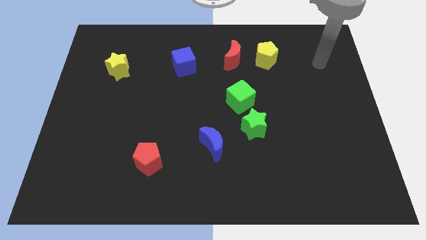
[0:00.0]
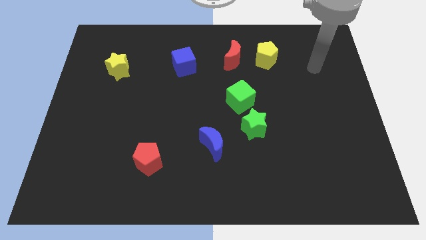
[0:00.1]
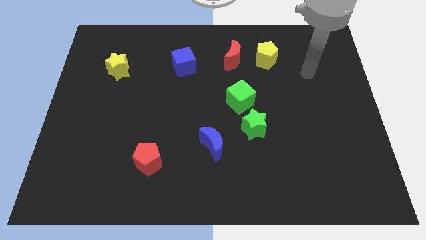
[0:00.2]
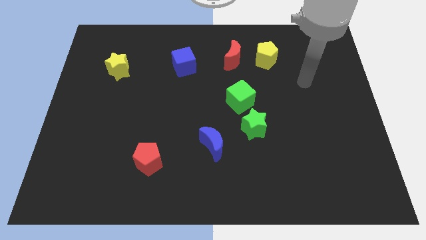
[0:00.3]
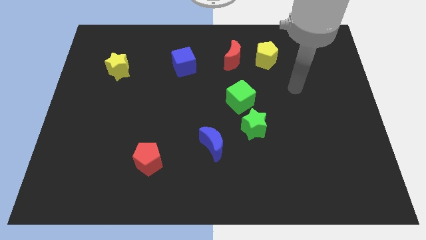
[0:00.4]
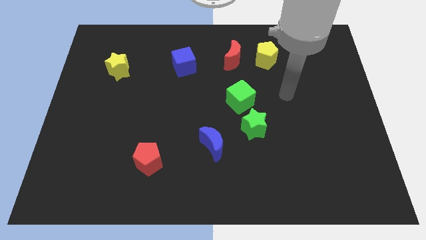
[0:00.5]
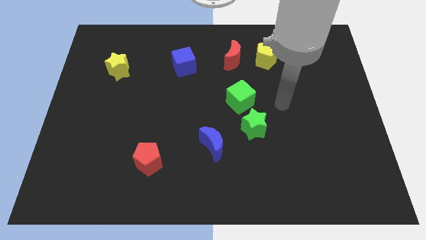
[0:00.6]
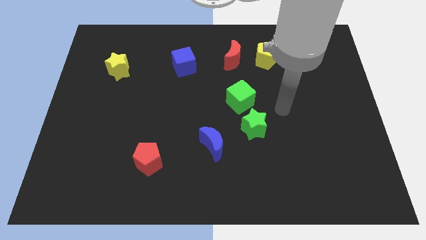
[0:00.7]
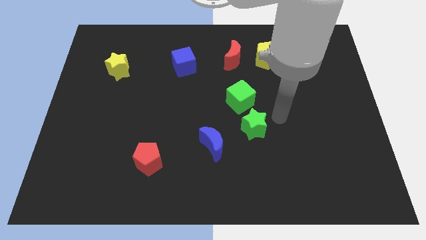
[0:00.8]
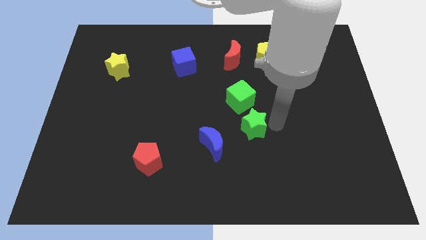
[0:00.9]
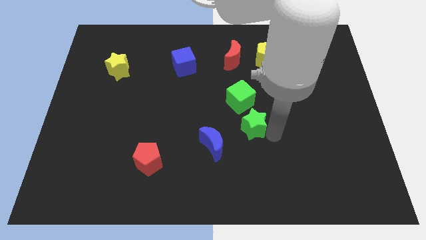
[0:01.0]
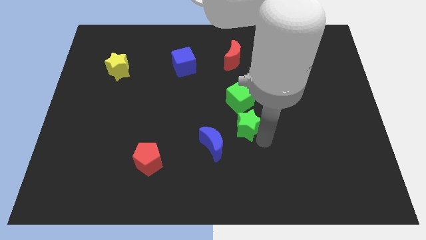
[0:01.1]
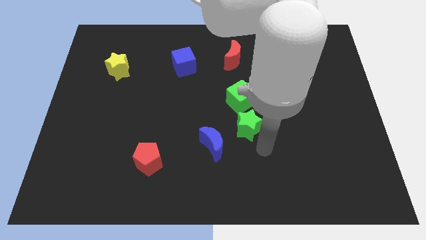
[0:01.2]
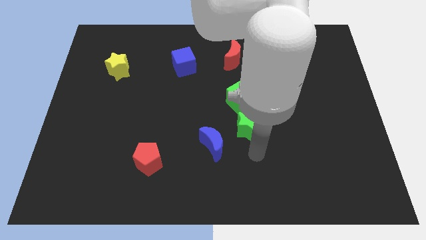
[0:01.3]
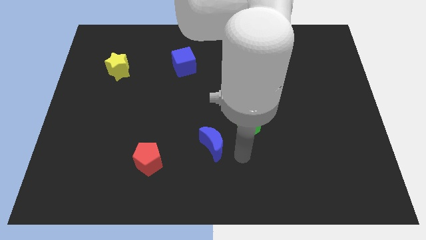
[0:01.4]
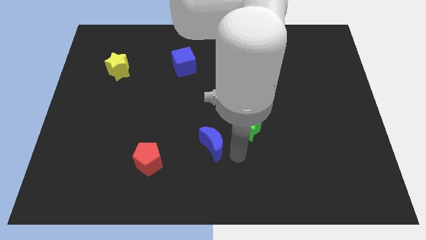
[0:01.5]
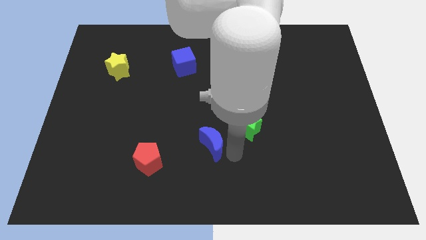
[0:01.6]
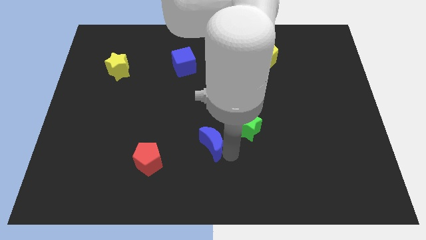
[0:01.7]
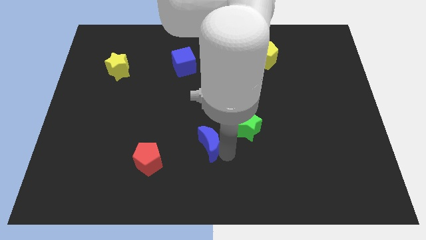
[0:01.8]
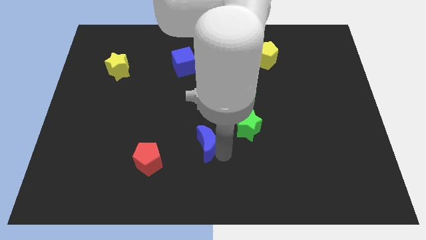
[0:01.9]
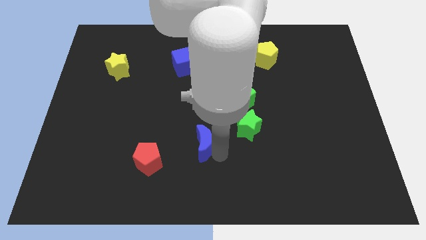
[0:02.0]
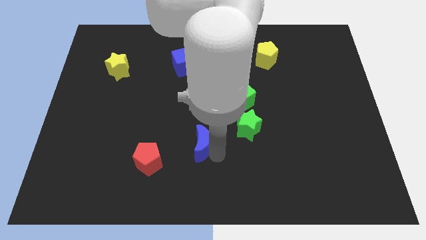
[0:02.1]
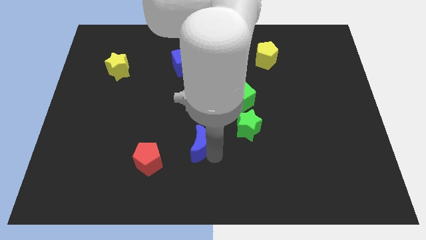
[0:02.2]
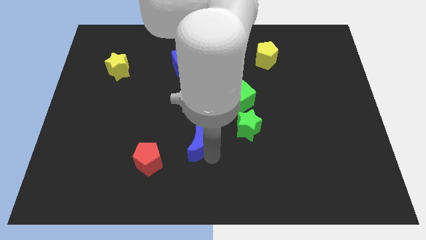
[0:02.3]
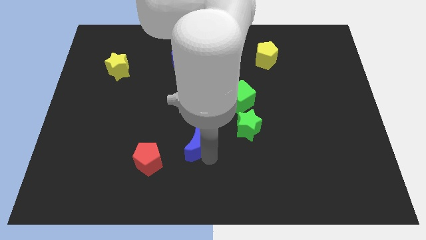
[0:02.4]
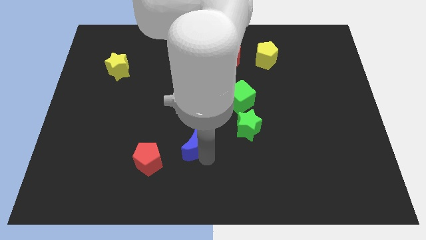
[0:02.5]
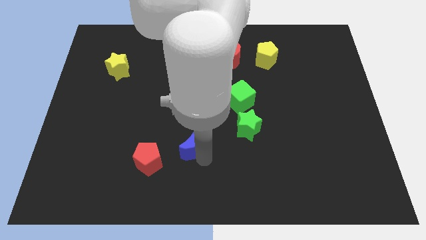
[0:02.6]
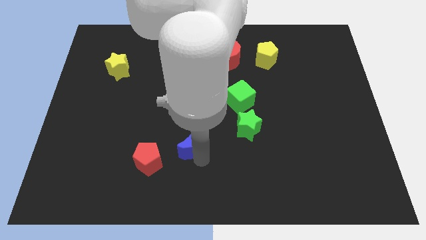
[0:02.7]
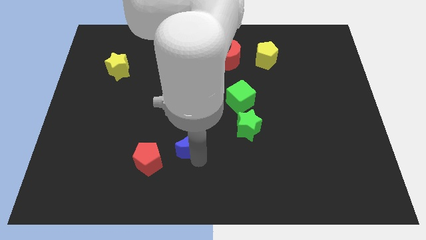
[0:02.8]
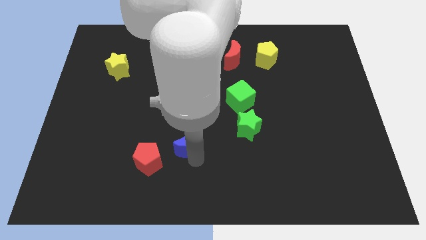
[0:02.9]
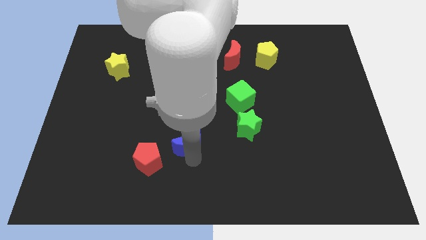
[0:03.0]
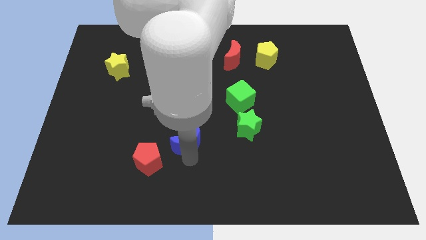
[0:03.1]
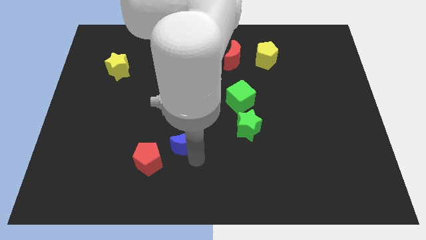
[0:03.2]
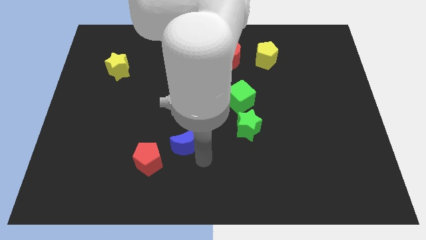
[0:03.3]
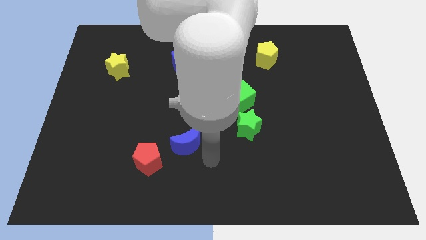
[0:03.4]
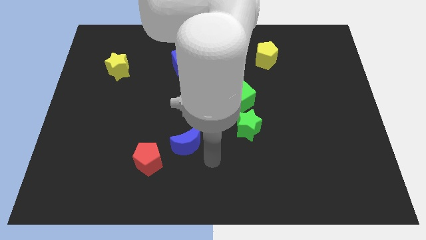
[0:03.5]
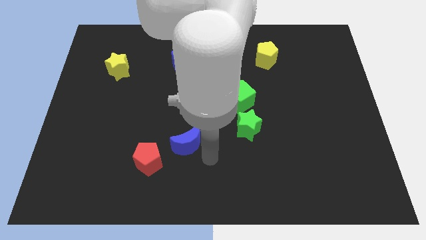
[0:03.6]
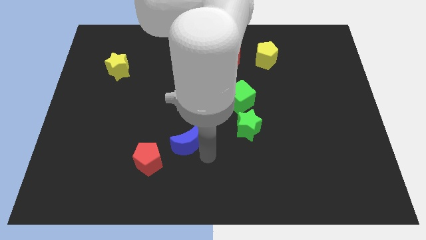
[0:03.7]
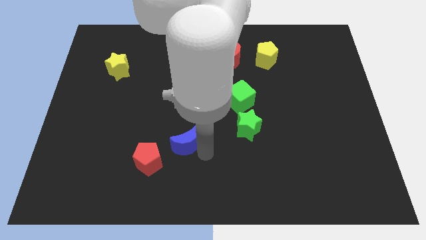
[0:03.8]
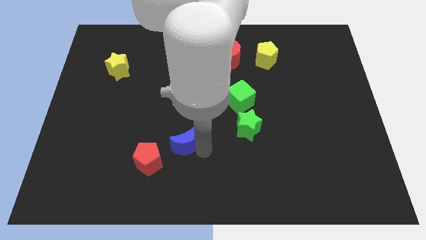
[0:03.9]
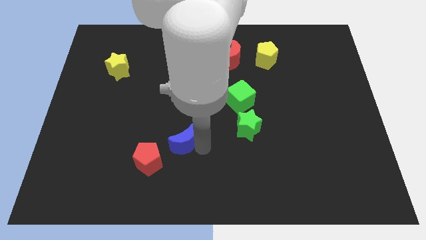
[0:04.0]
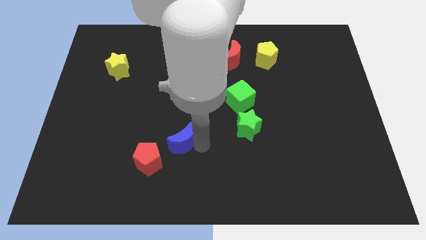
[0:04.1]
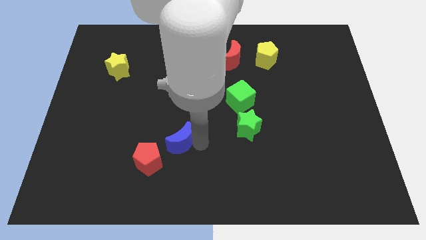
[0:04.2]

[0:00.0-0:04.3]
slightly slide the blue moon to the left

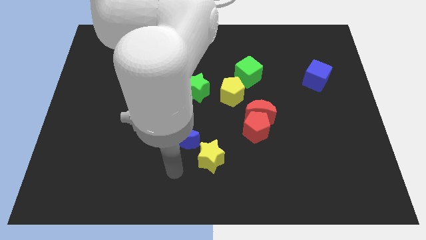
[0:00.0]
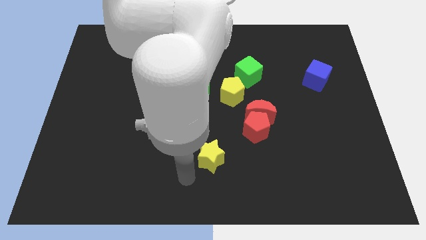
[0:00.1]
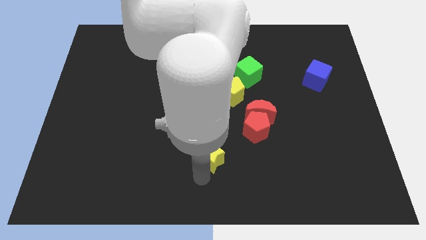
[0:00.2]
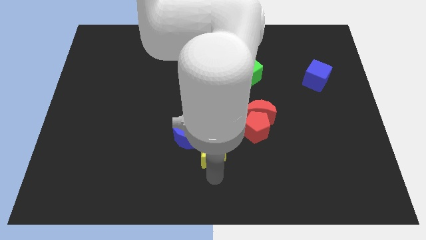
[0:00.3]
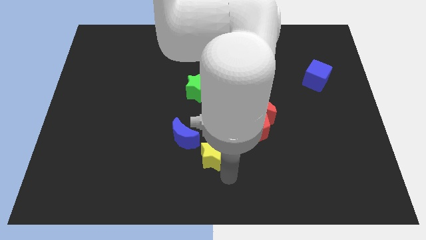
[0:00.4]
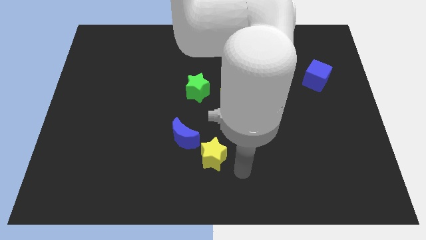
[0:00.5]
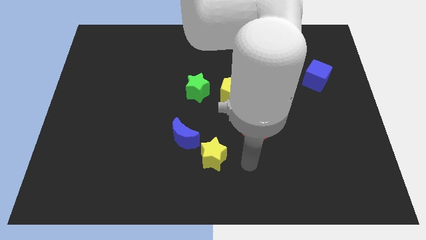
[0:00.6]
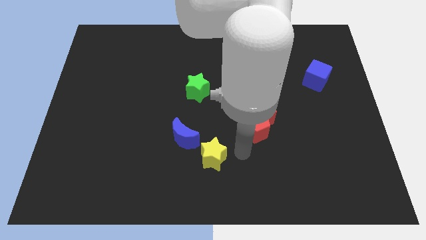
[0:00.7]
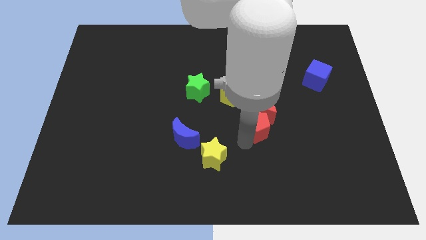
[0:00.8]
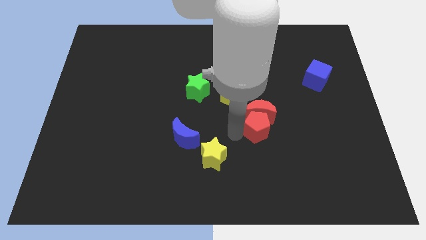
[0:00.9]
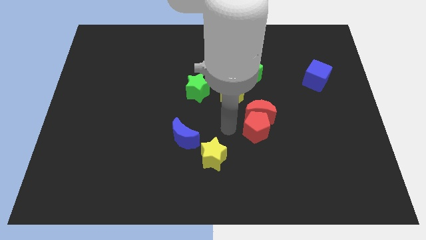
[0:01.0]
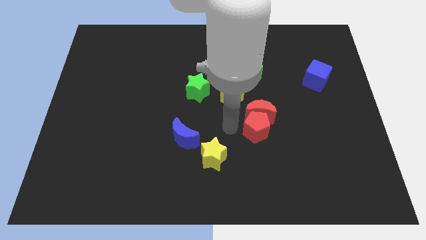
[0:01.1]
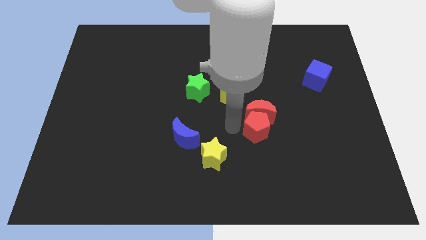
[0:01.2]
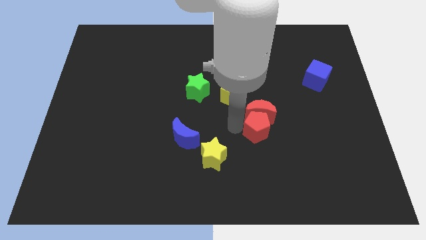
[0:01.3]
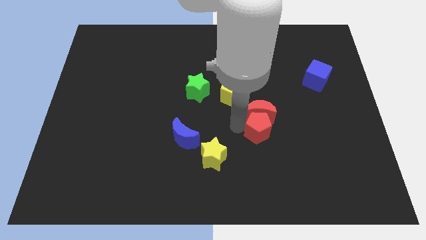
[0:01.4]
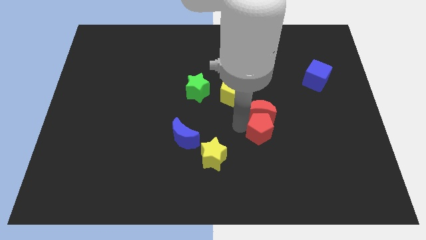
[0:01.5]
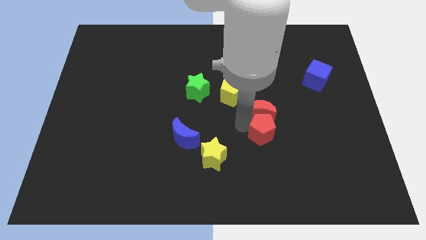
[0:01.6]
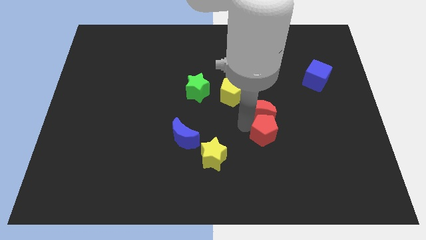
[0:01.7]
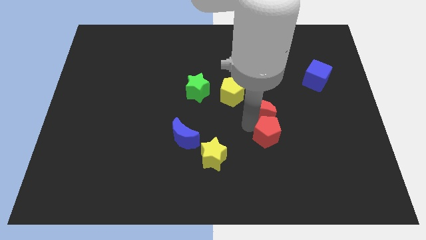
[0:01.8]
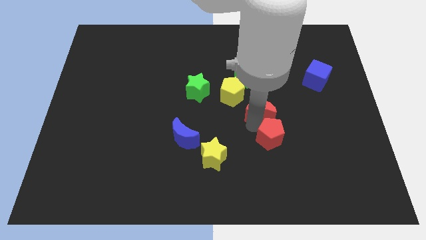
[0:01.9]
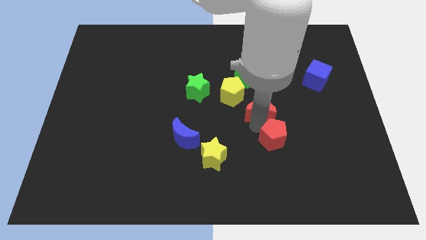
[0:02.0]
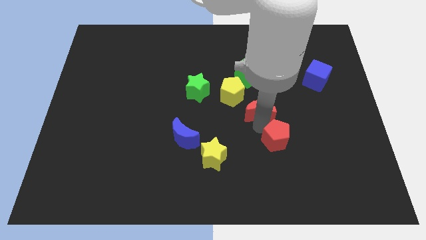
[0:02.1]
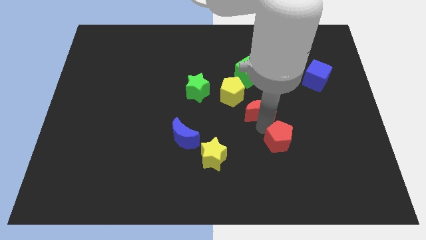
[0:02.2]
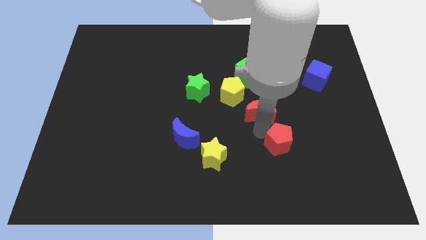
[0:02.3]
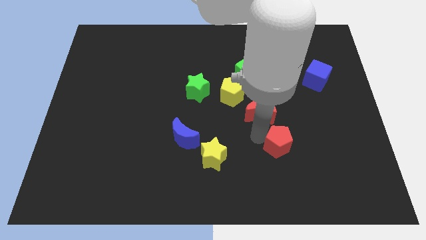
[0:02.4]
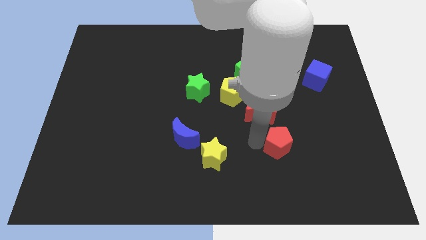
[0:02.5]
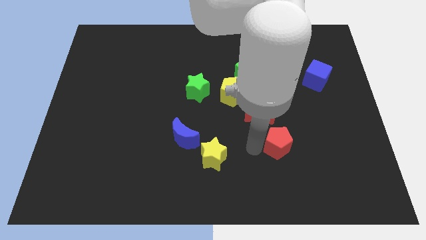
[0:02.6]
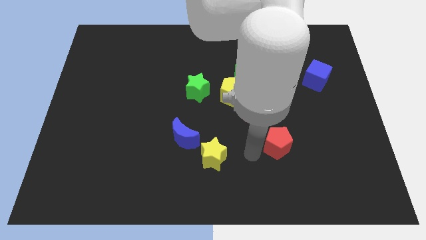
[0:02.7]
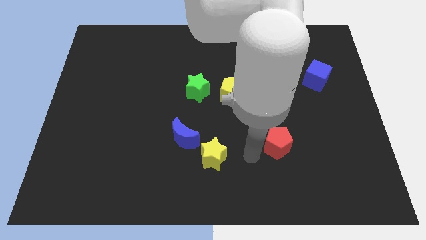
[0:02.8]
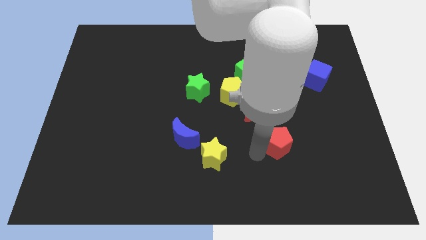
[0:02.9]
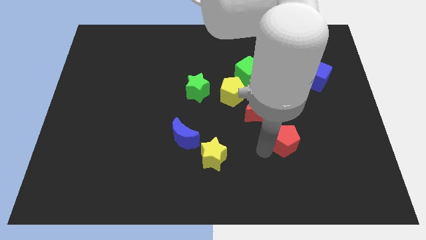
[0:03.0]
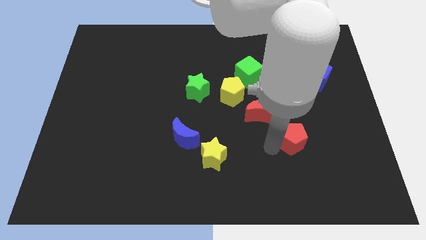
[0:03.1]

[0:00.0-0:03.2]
move the red pentagon to the right a little bit

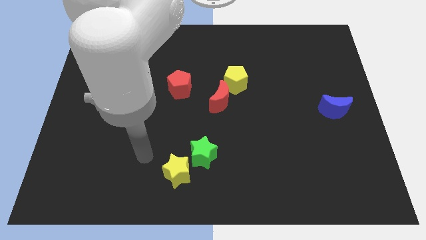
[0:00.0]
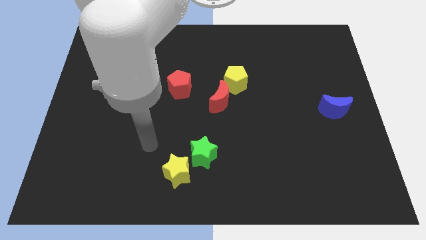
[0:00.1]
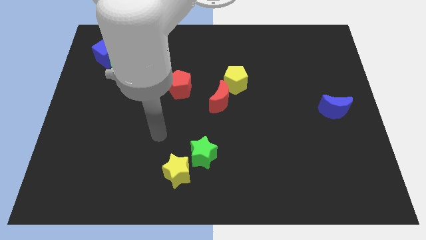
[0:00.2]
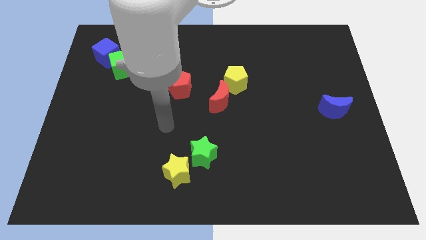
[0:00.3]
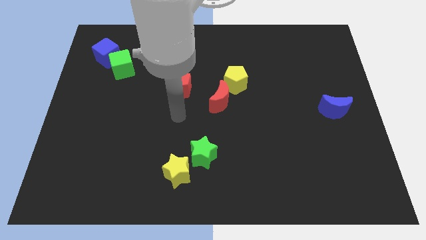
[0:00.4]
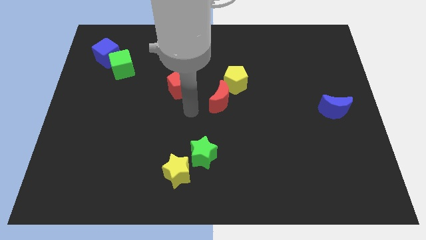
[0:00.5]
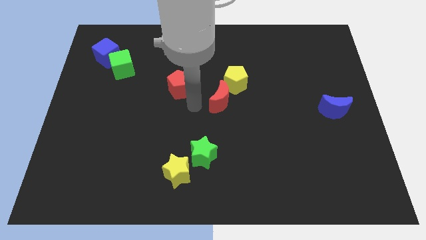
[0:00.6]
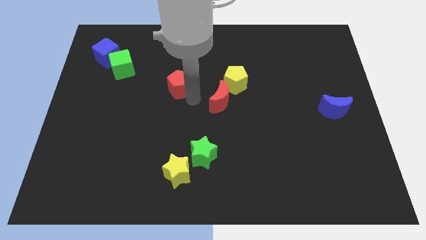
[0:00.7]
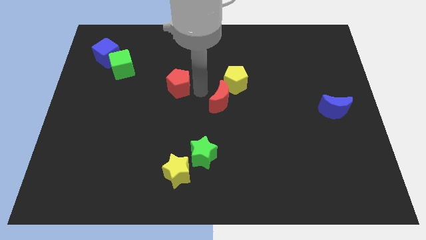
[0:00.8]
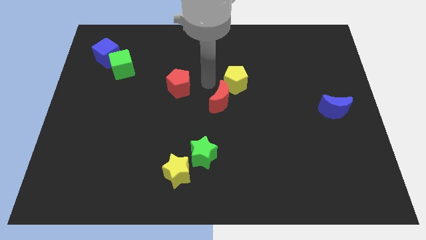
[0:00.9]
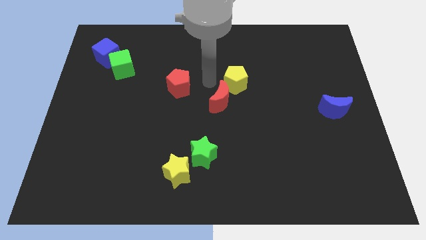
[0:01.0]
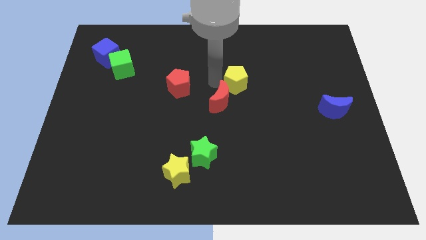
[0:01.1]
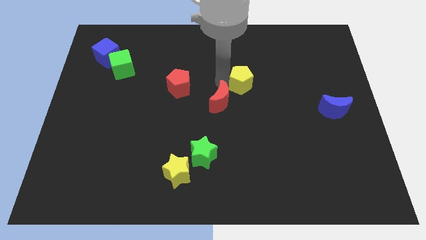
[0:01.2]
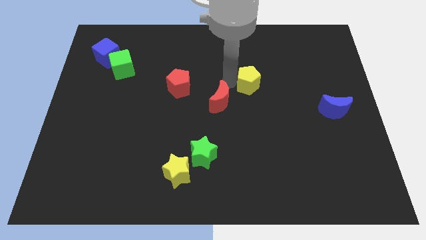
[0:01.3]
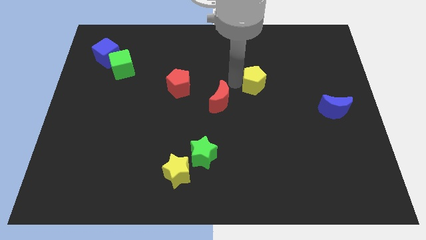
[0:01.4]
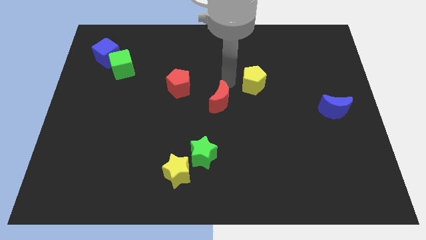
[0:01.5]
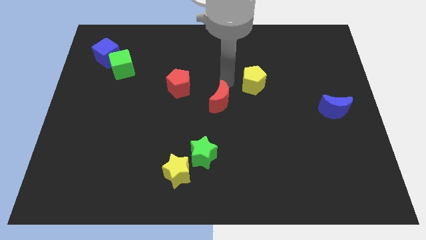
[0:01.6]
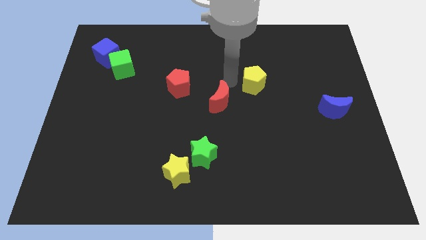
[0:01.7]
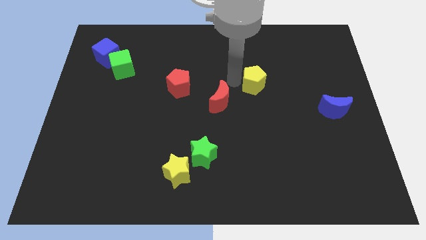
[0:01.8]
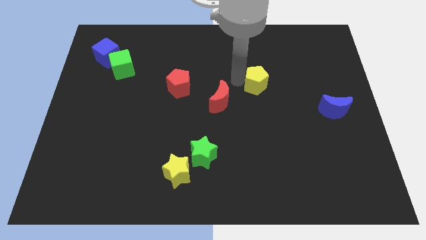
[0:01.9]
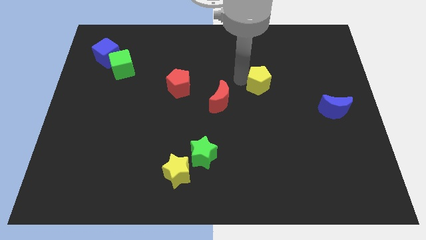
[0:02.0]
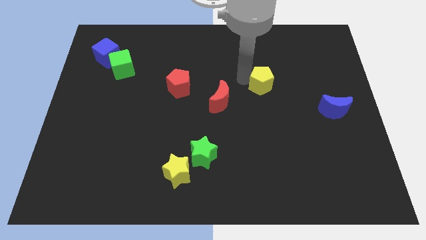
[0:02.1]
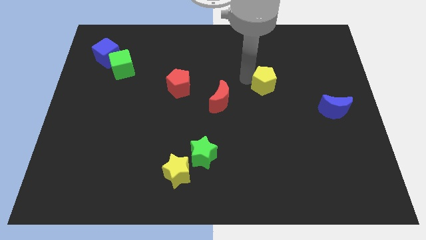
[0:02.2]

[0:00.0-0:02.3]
slightly push the yellow pentagon right
